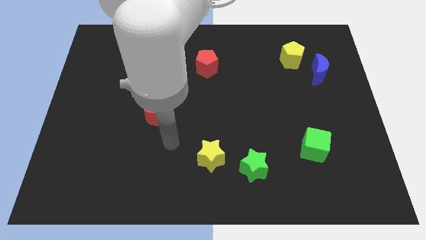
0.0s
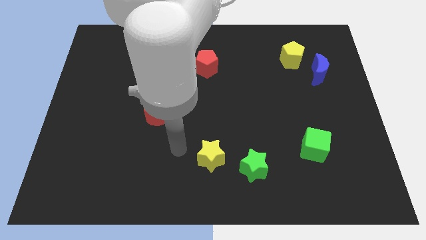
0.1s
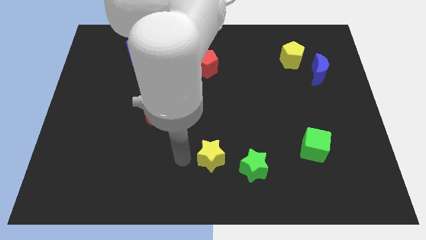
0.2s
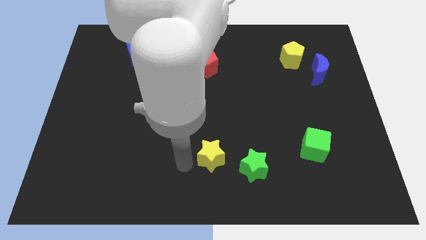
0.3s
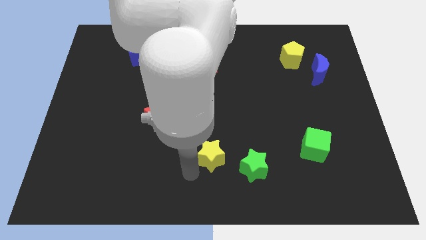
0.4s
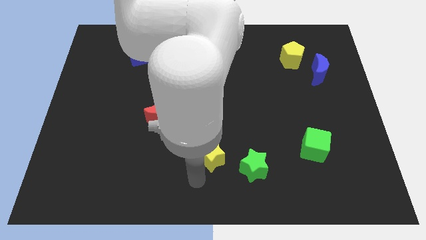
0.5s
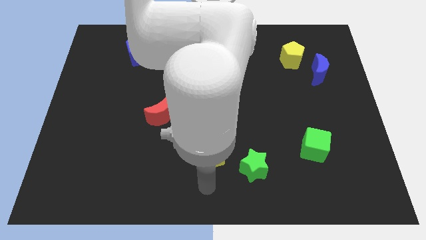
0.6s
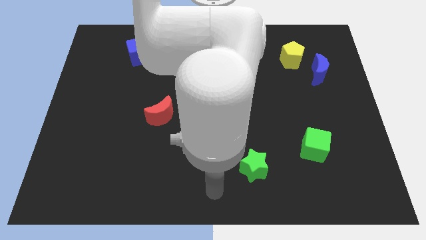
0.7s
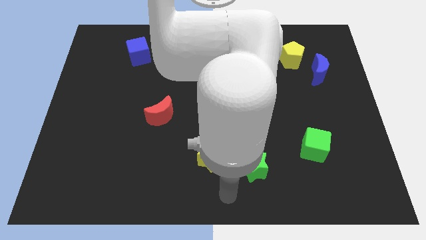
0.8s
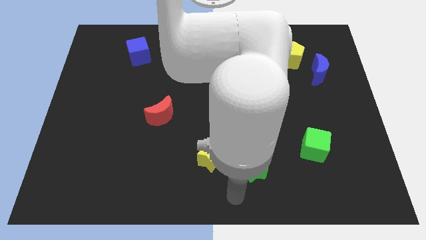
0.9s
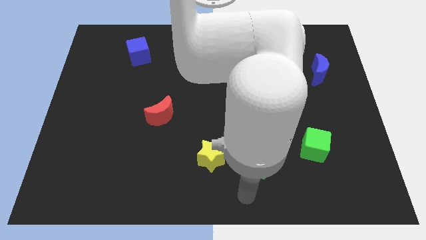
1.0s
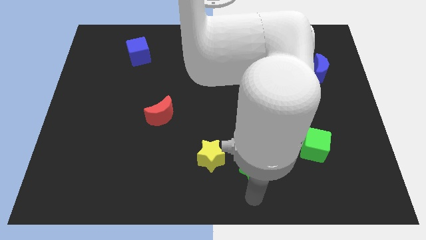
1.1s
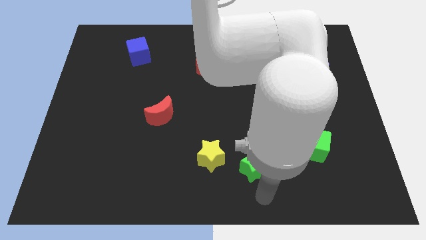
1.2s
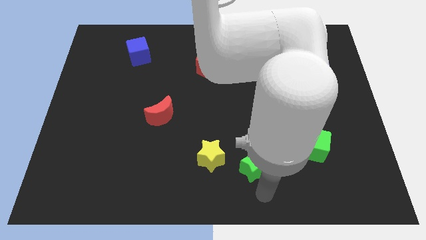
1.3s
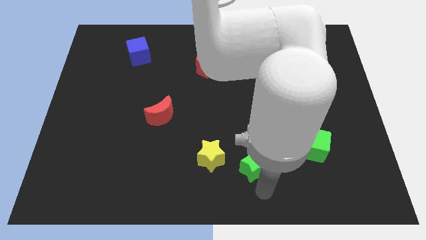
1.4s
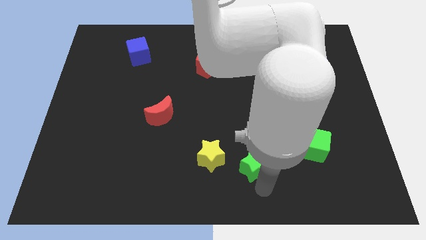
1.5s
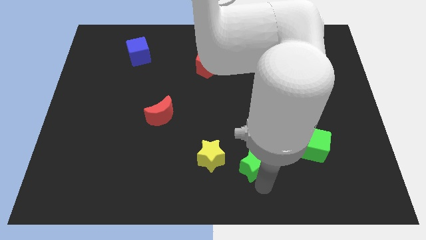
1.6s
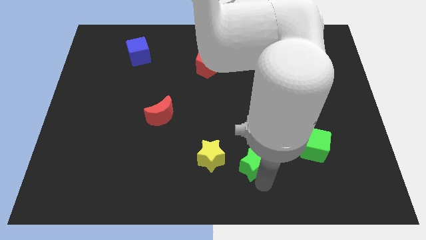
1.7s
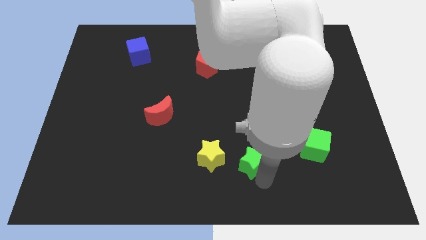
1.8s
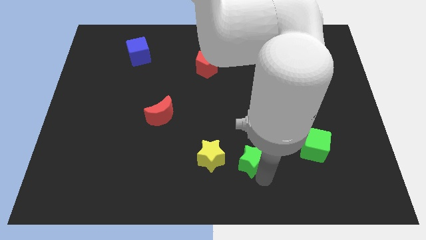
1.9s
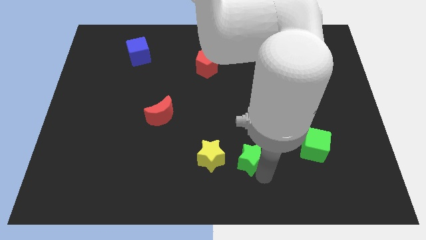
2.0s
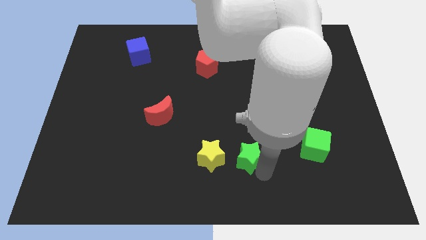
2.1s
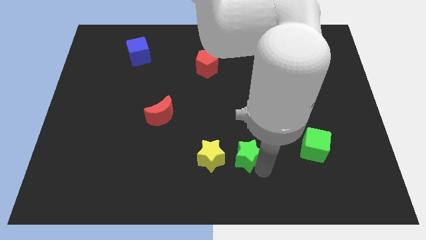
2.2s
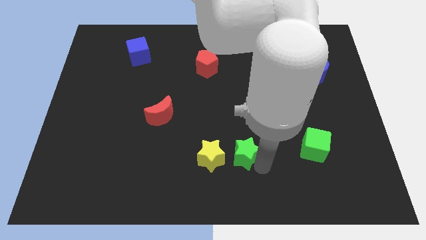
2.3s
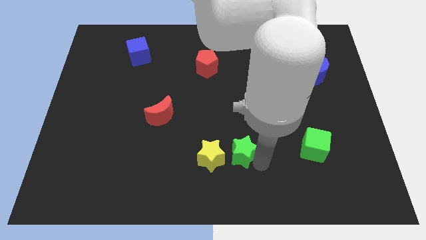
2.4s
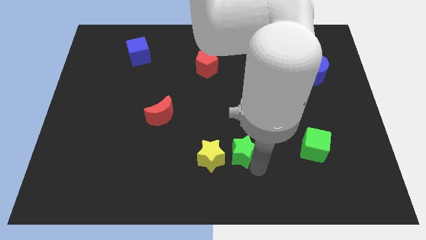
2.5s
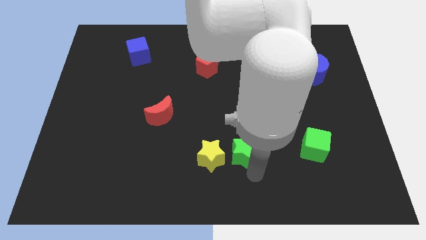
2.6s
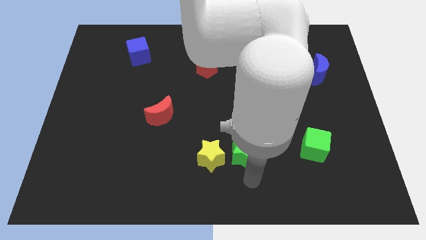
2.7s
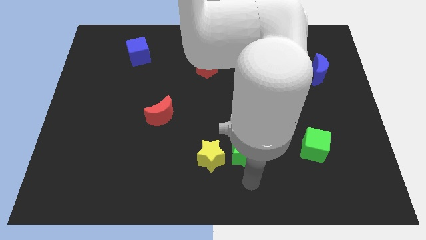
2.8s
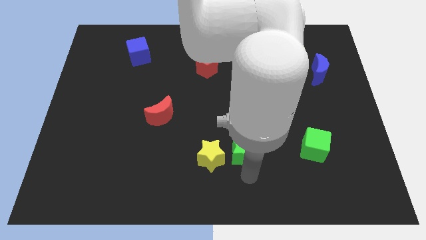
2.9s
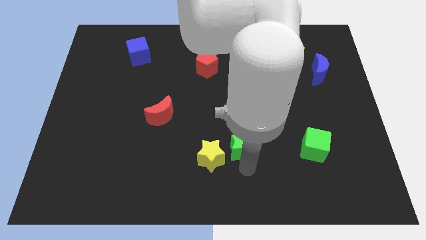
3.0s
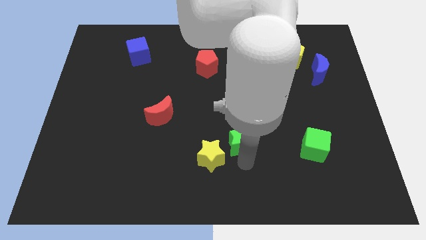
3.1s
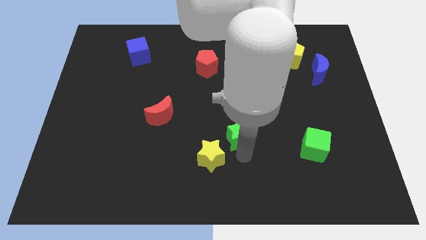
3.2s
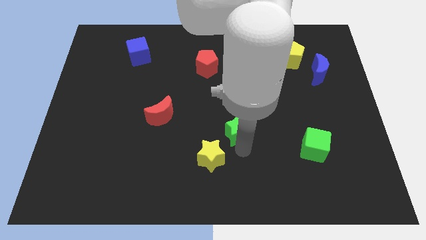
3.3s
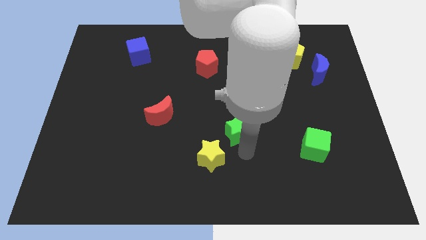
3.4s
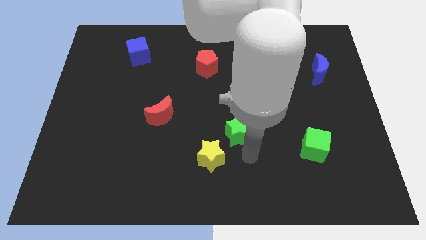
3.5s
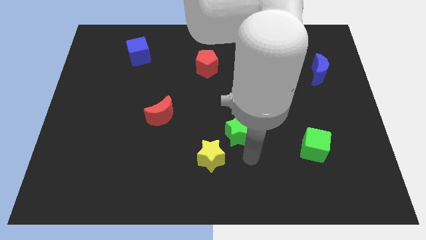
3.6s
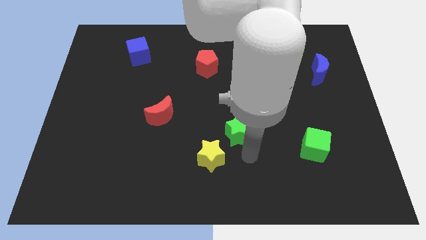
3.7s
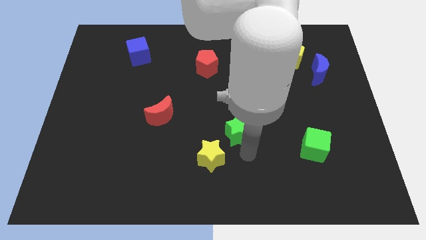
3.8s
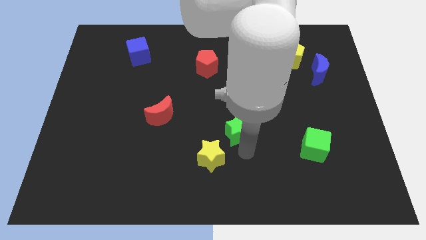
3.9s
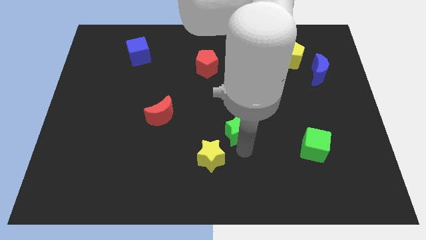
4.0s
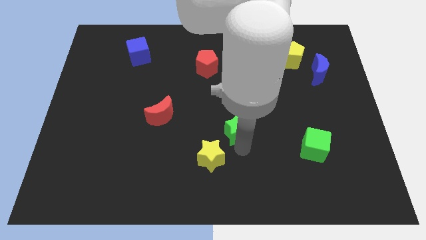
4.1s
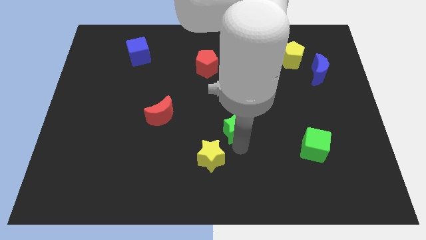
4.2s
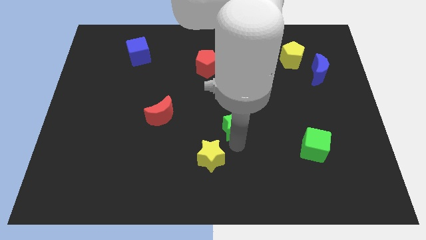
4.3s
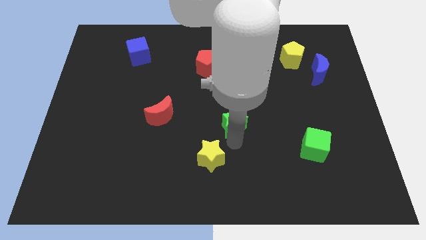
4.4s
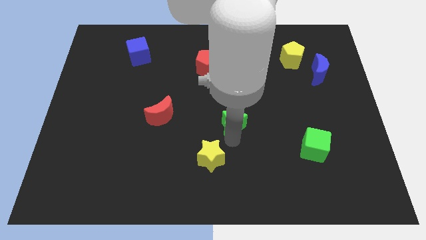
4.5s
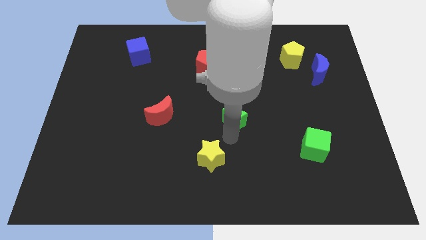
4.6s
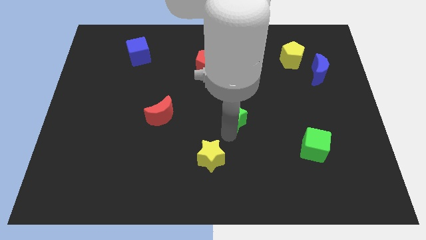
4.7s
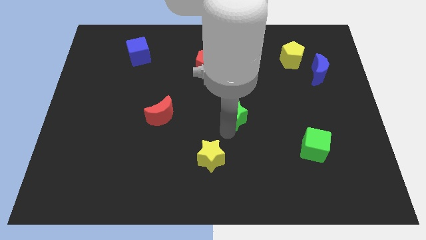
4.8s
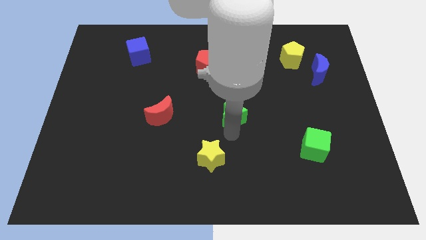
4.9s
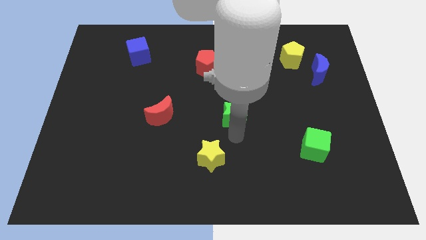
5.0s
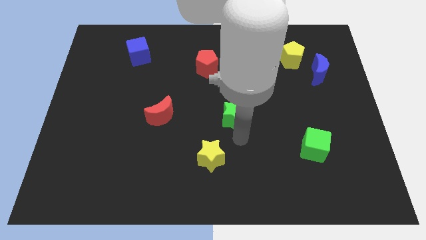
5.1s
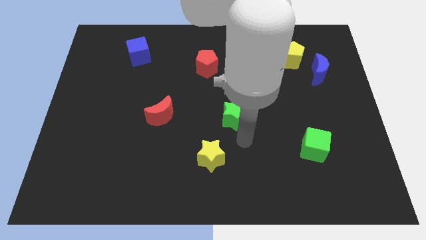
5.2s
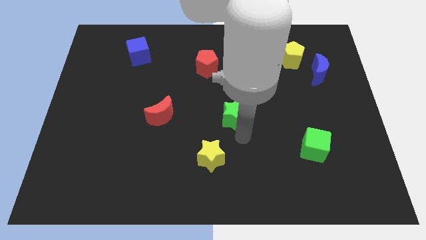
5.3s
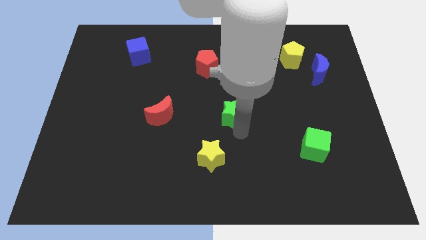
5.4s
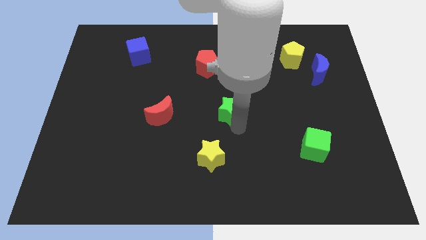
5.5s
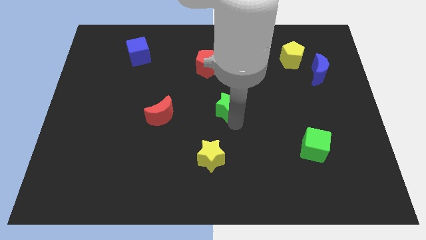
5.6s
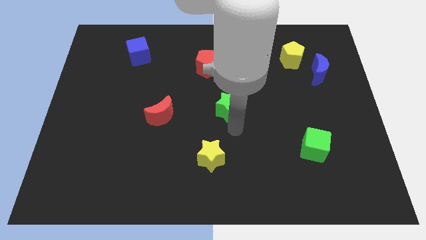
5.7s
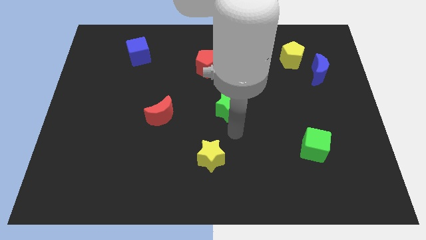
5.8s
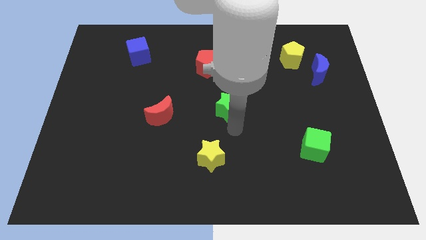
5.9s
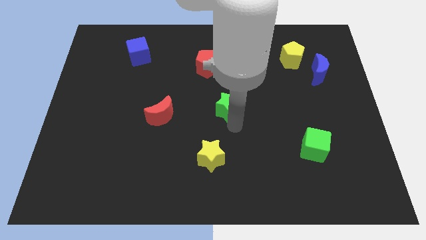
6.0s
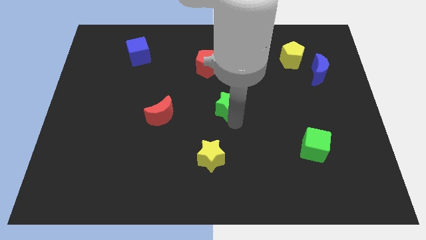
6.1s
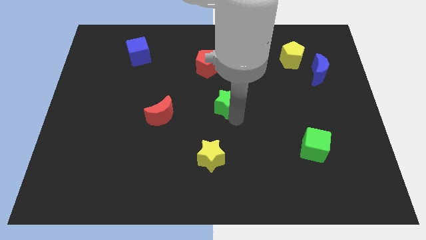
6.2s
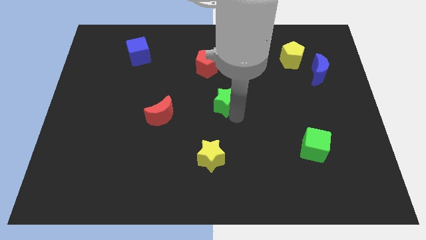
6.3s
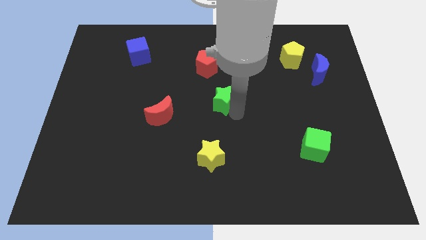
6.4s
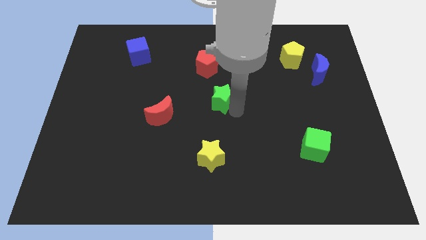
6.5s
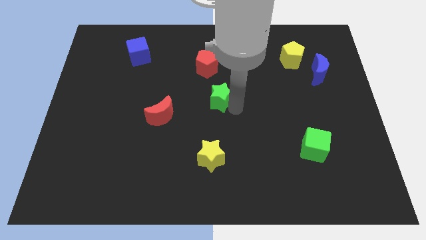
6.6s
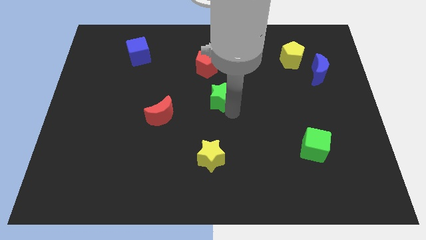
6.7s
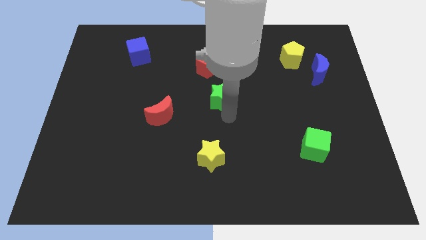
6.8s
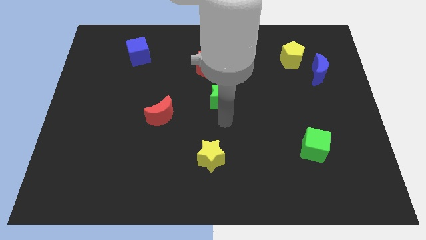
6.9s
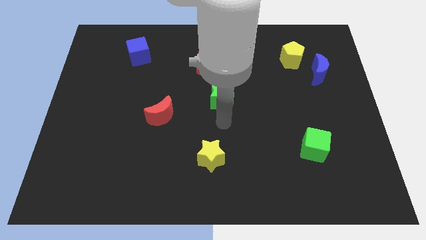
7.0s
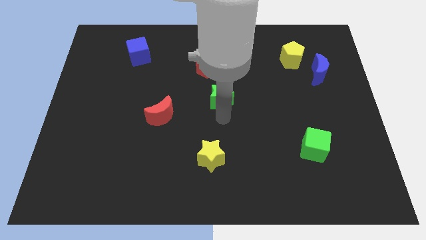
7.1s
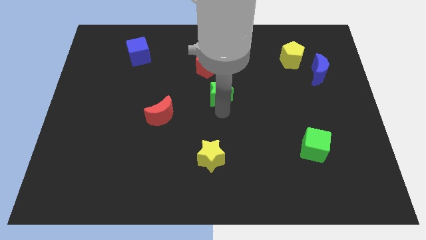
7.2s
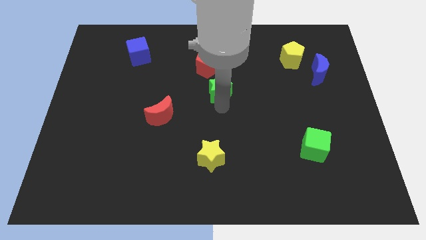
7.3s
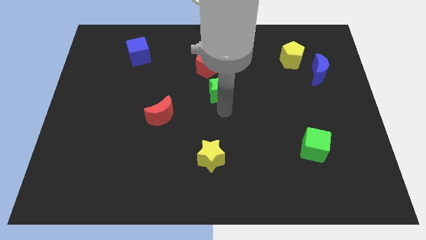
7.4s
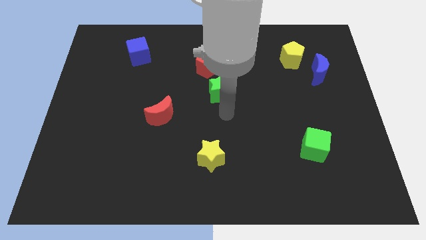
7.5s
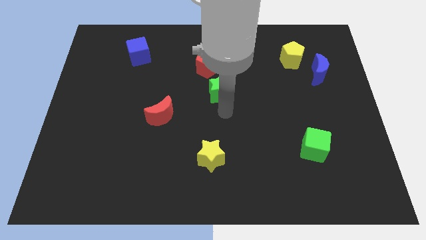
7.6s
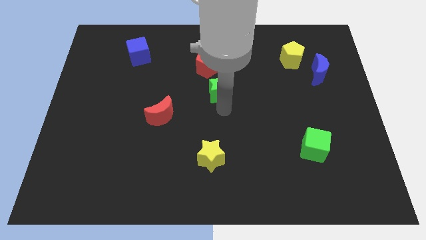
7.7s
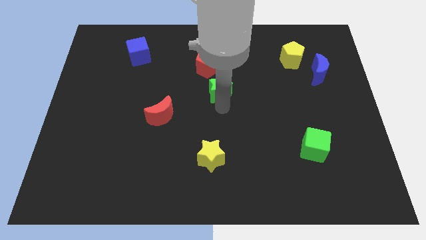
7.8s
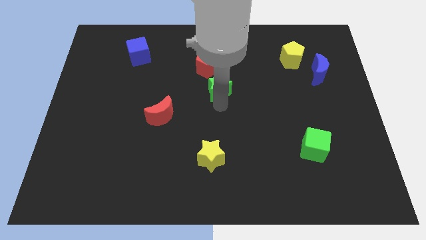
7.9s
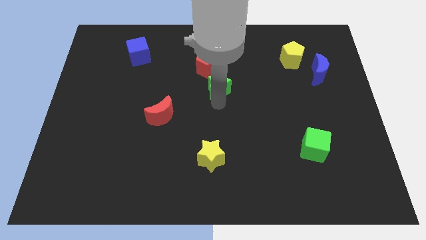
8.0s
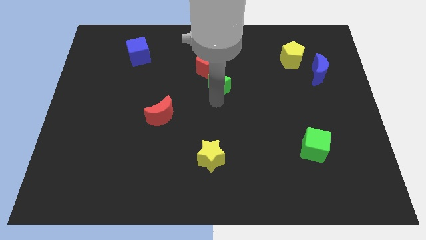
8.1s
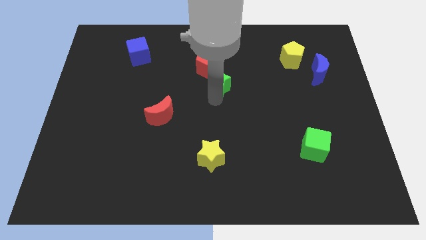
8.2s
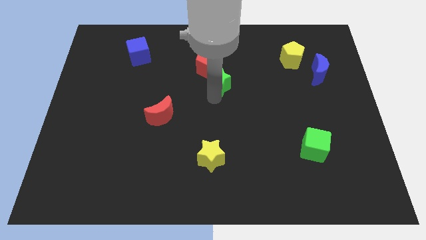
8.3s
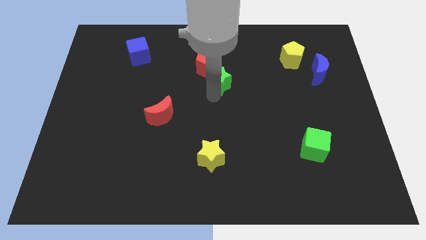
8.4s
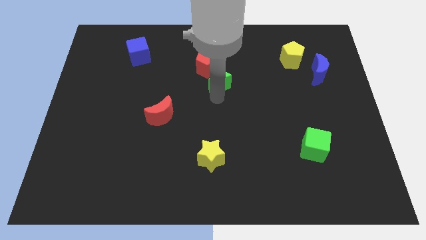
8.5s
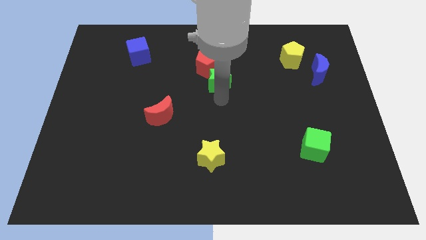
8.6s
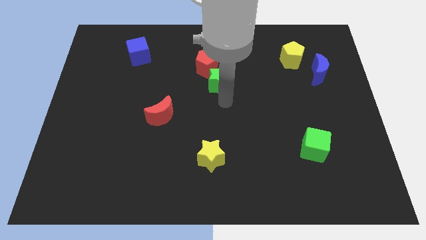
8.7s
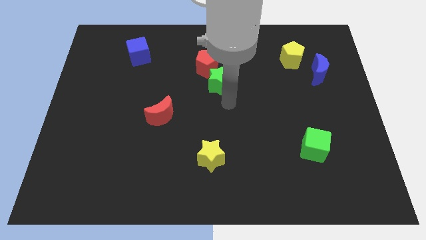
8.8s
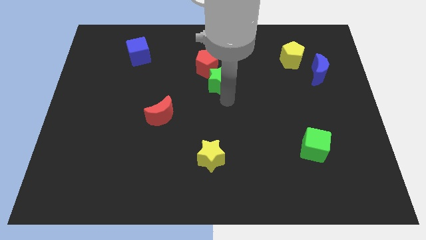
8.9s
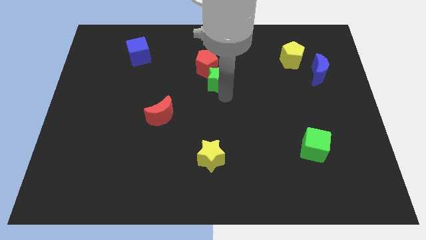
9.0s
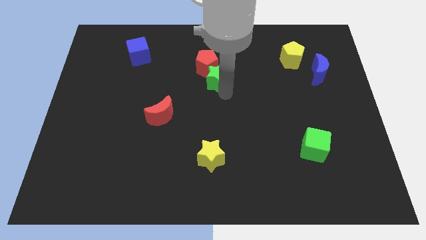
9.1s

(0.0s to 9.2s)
push the green star next to the red pentagon
